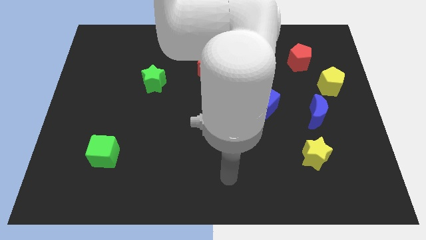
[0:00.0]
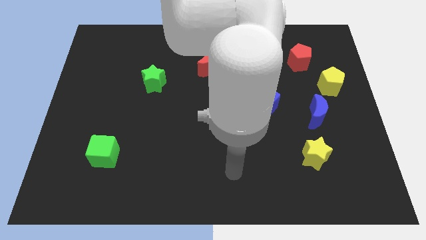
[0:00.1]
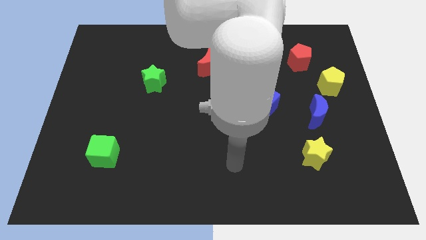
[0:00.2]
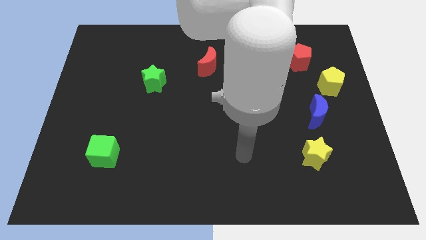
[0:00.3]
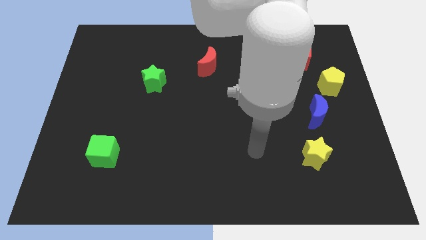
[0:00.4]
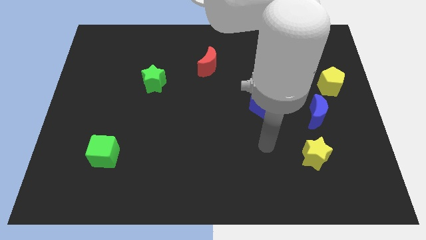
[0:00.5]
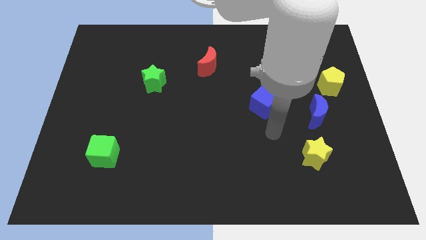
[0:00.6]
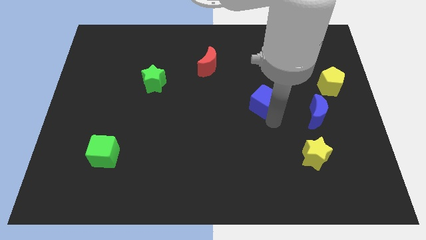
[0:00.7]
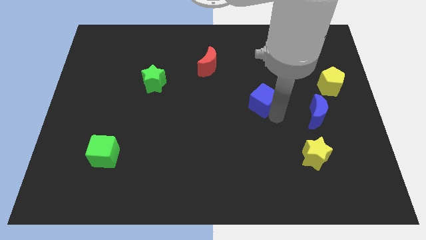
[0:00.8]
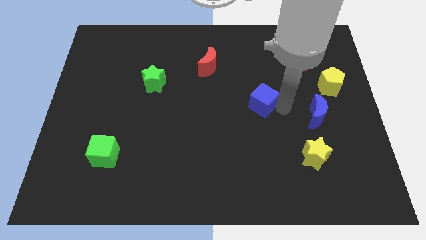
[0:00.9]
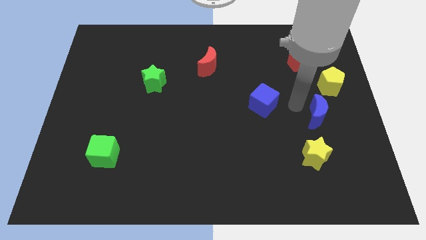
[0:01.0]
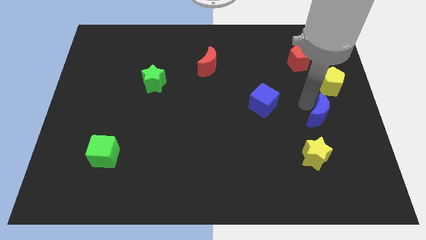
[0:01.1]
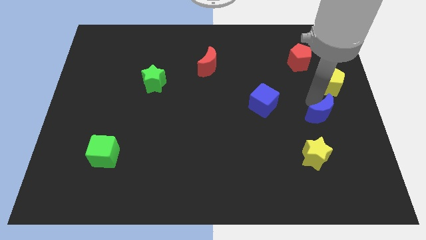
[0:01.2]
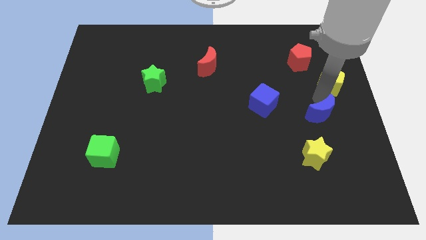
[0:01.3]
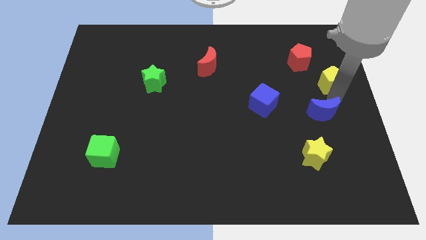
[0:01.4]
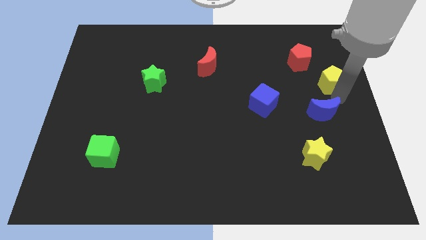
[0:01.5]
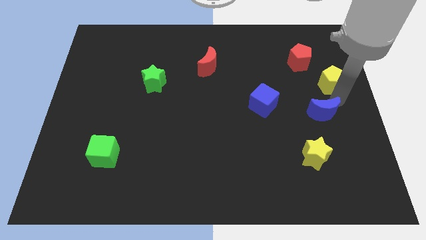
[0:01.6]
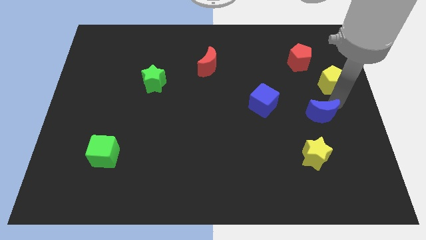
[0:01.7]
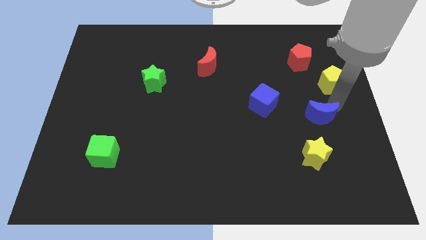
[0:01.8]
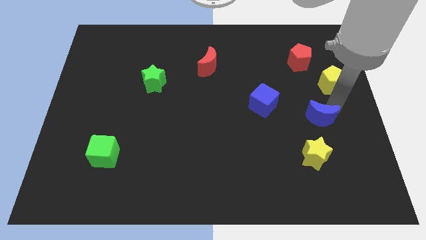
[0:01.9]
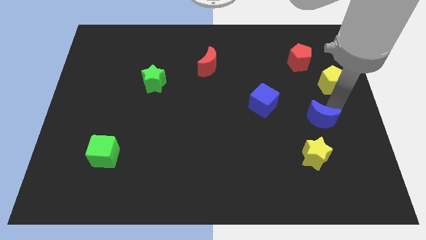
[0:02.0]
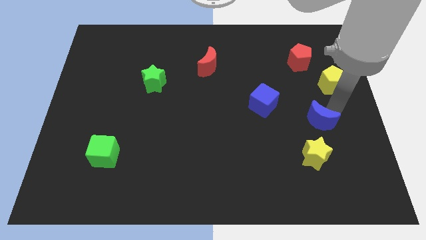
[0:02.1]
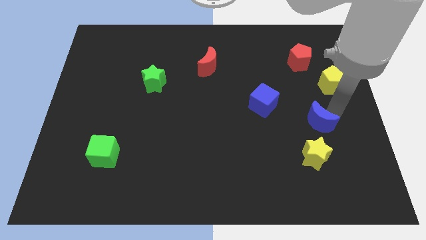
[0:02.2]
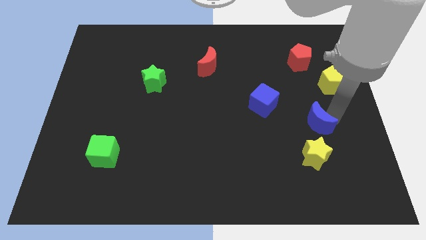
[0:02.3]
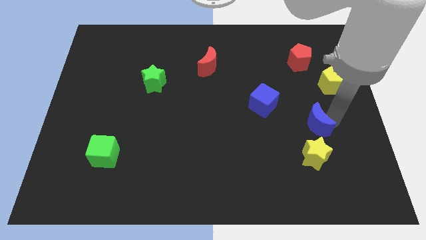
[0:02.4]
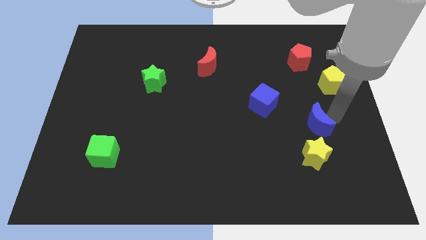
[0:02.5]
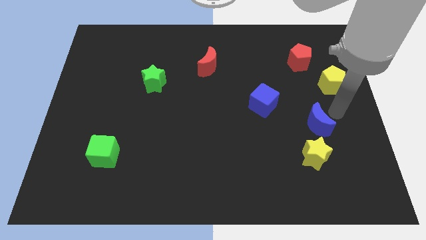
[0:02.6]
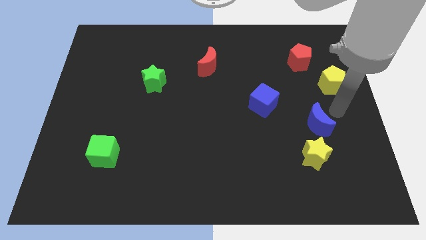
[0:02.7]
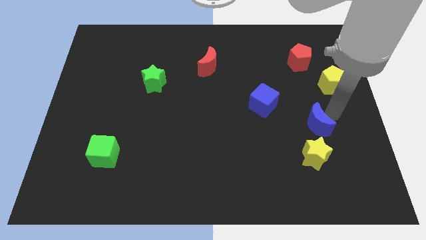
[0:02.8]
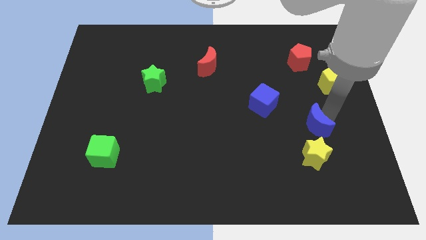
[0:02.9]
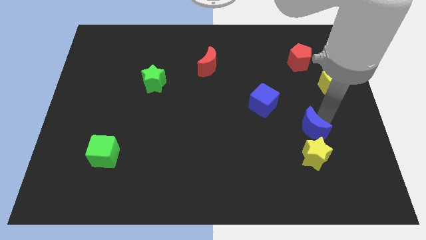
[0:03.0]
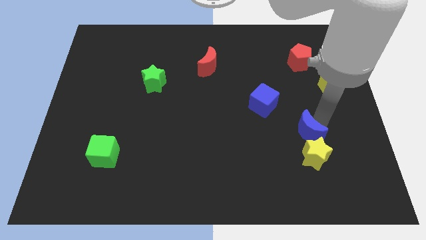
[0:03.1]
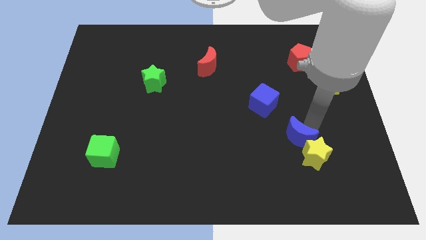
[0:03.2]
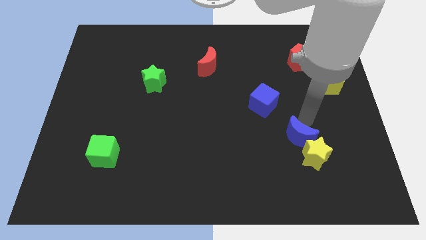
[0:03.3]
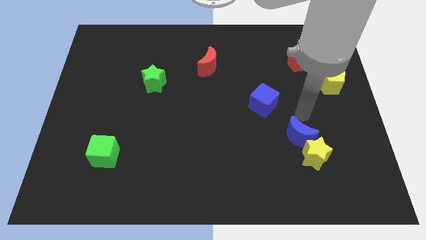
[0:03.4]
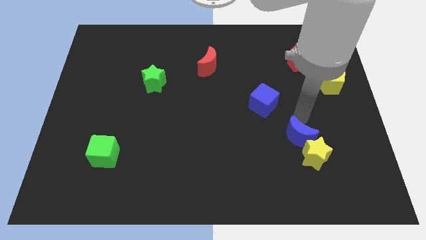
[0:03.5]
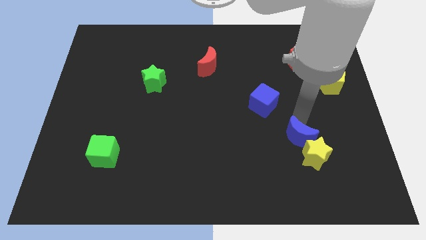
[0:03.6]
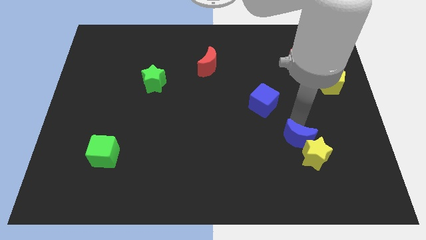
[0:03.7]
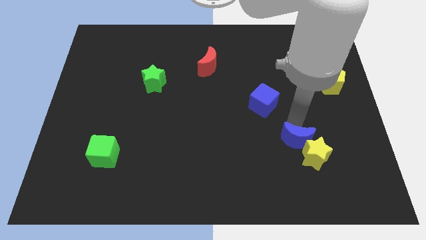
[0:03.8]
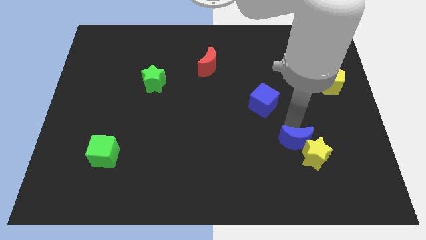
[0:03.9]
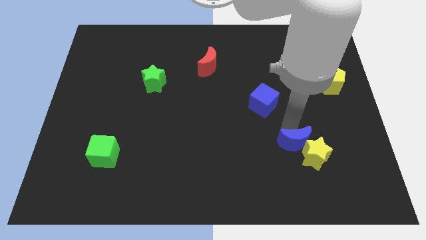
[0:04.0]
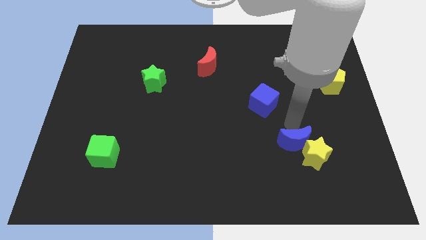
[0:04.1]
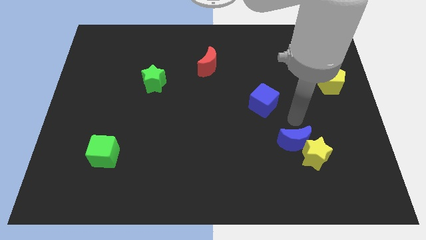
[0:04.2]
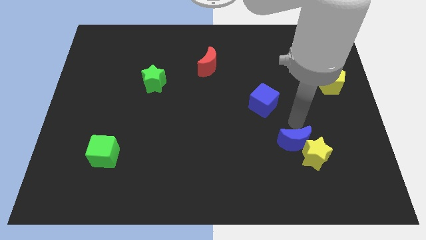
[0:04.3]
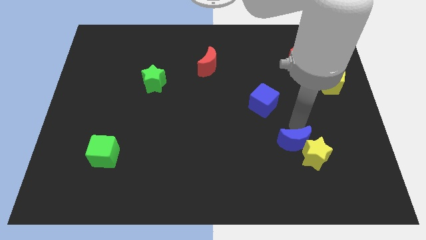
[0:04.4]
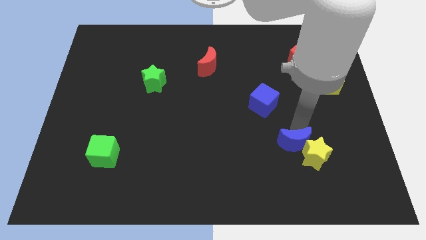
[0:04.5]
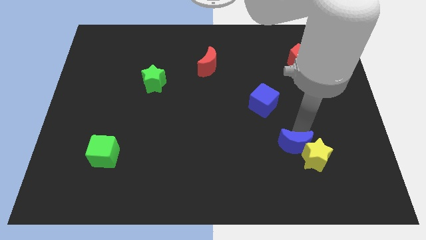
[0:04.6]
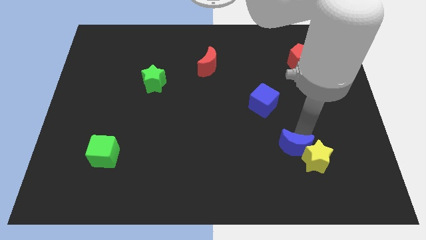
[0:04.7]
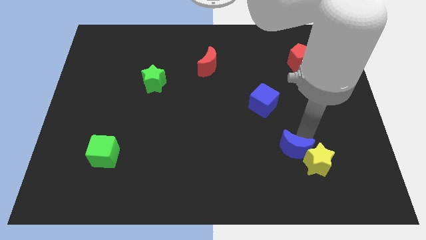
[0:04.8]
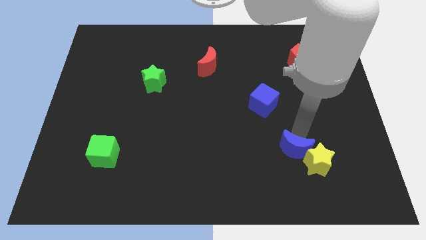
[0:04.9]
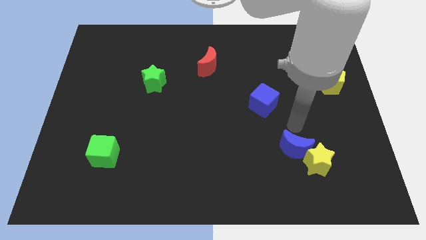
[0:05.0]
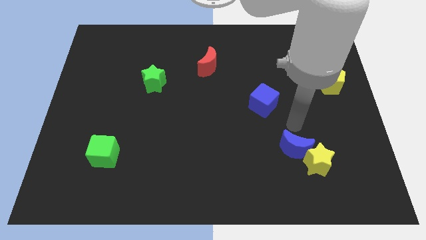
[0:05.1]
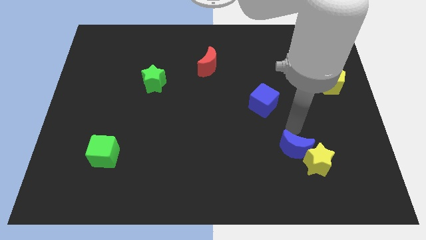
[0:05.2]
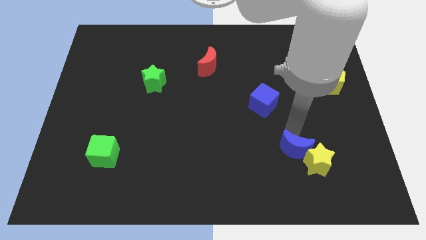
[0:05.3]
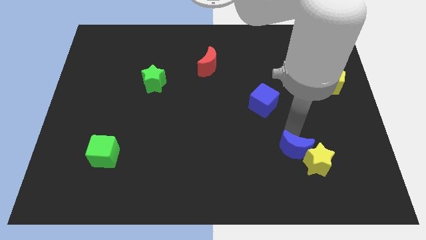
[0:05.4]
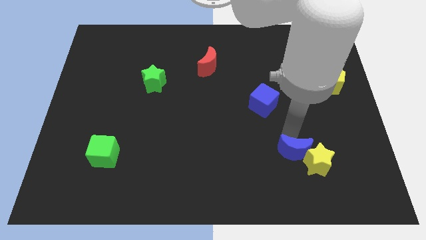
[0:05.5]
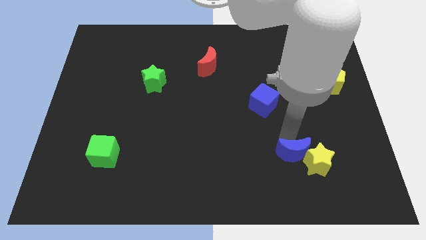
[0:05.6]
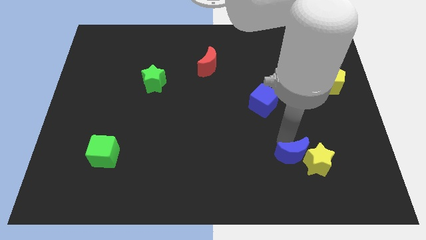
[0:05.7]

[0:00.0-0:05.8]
move the blue moon to the bottom left of the yellow star

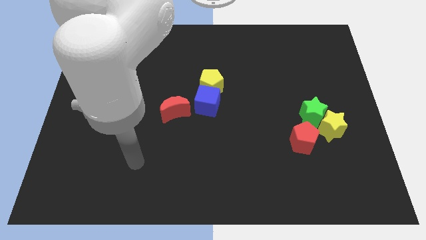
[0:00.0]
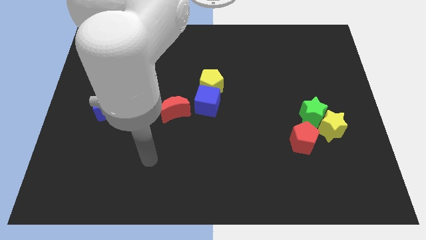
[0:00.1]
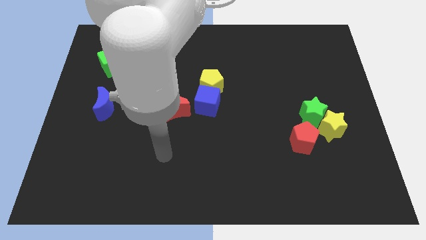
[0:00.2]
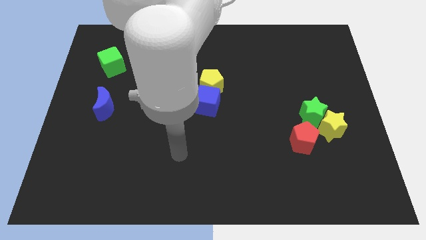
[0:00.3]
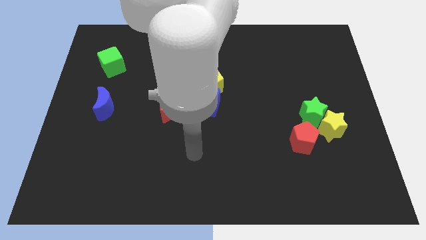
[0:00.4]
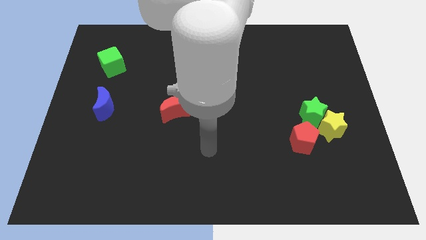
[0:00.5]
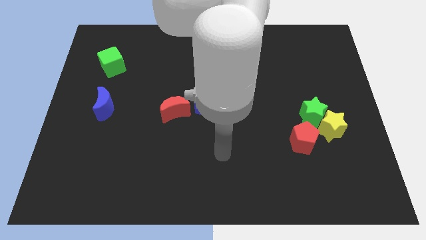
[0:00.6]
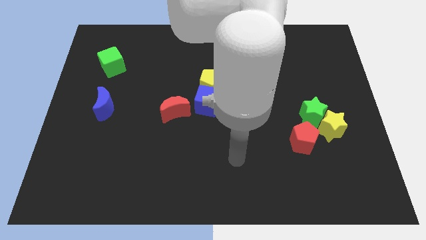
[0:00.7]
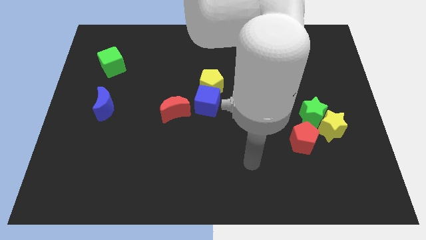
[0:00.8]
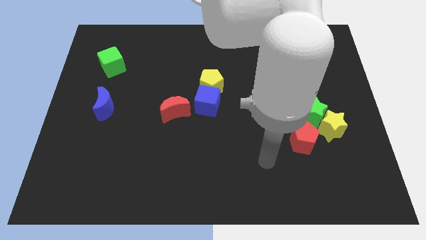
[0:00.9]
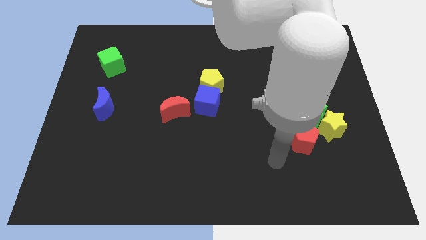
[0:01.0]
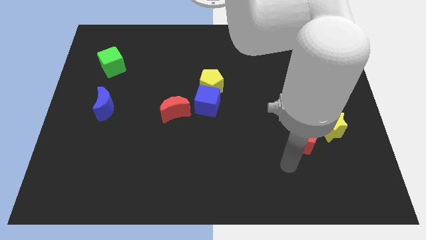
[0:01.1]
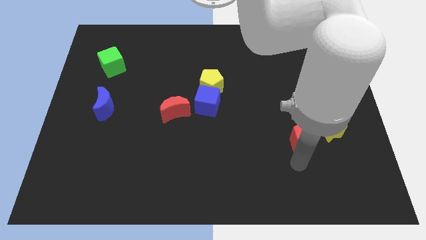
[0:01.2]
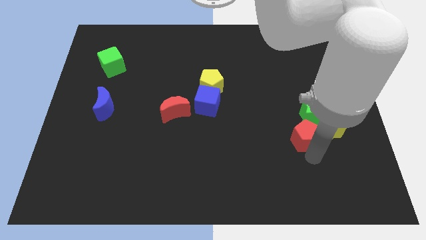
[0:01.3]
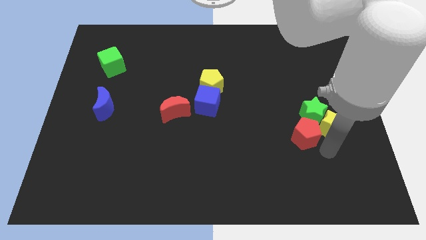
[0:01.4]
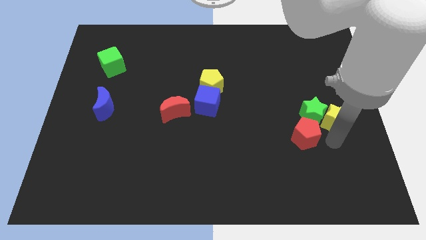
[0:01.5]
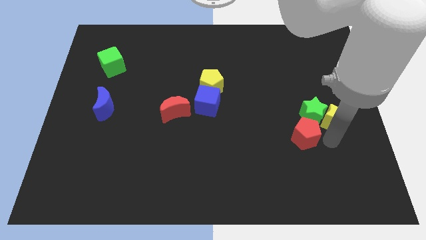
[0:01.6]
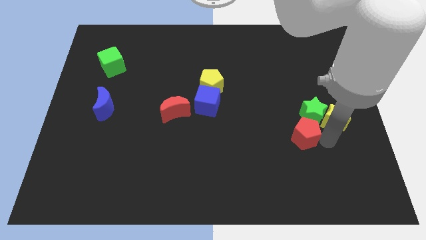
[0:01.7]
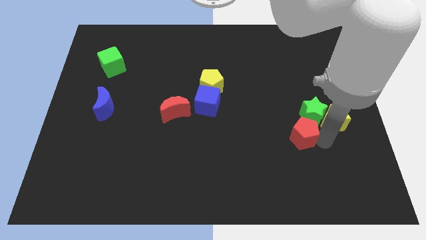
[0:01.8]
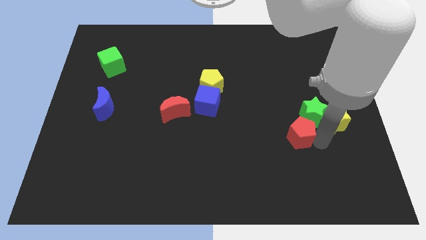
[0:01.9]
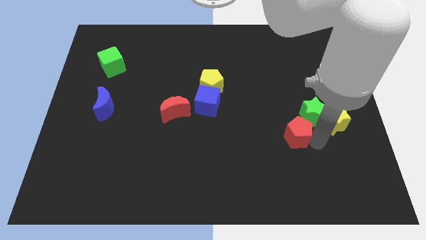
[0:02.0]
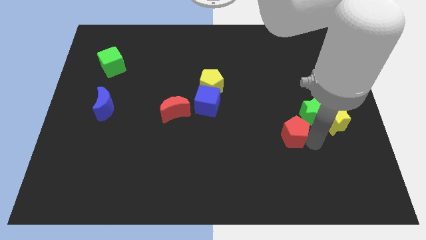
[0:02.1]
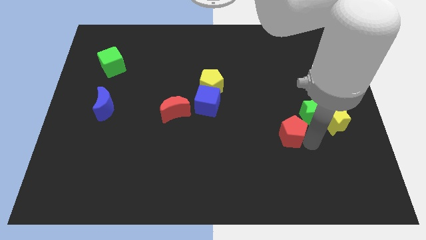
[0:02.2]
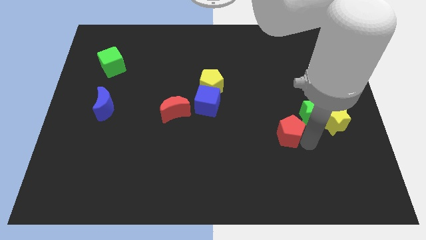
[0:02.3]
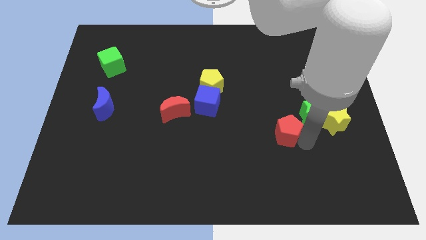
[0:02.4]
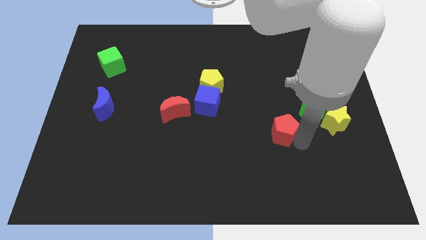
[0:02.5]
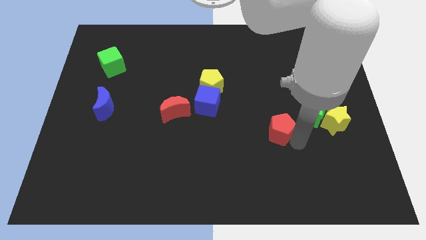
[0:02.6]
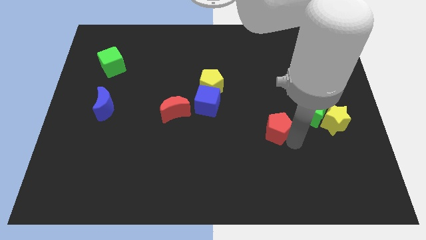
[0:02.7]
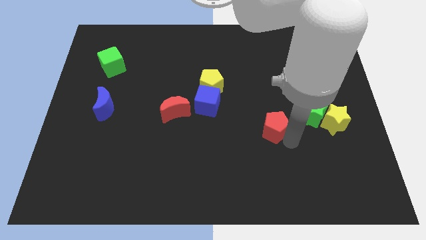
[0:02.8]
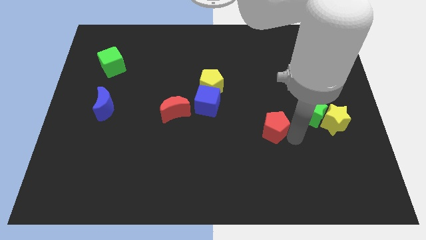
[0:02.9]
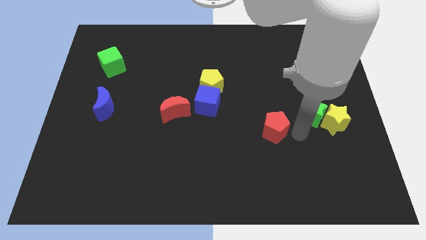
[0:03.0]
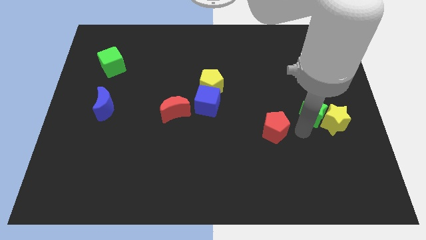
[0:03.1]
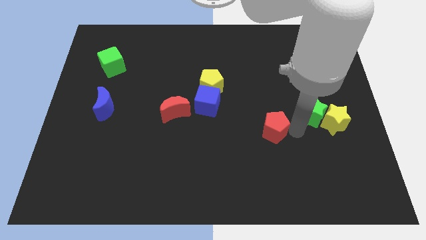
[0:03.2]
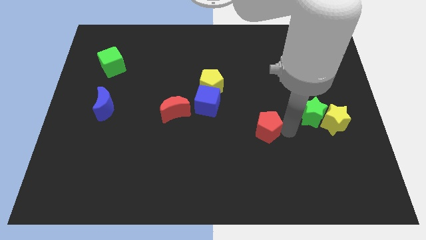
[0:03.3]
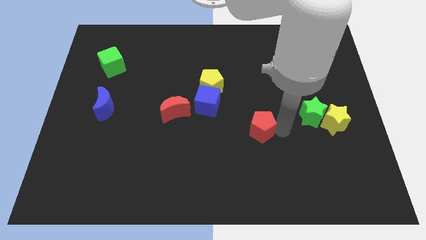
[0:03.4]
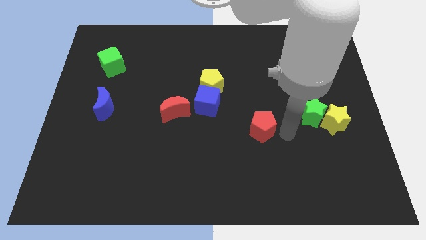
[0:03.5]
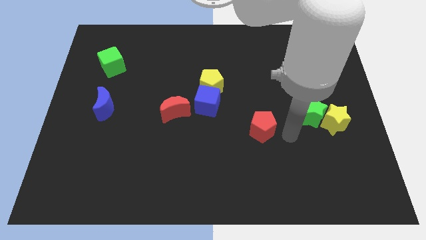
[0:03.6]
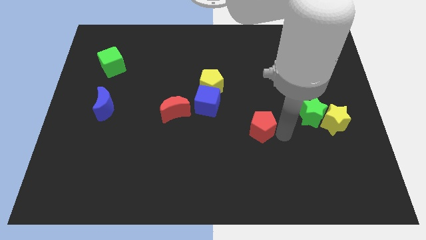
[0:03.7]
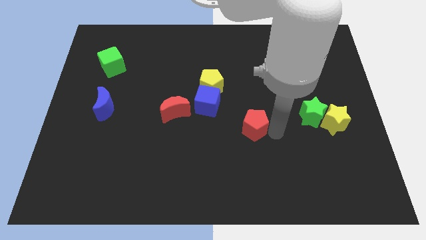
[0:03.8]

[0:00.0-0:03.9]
push the red pentagon to the bottom right of the blue cube
